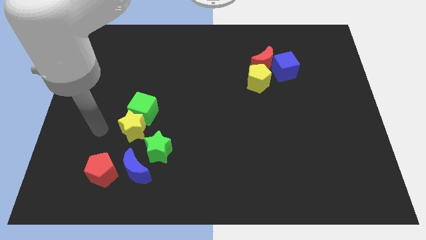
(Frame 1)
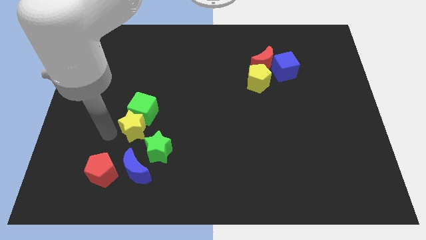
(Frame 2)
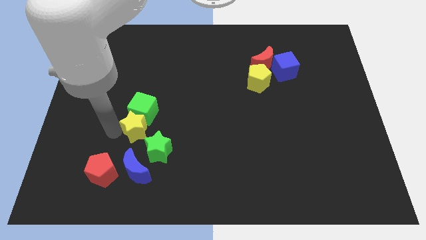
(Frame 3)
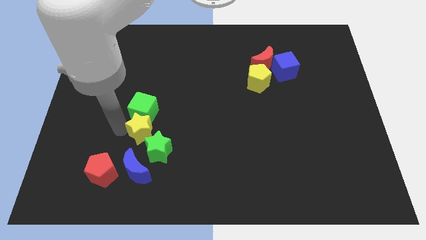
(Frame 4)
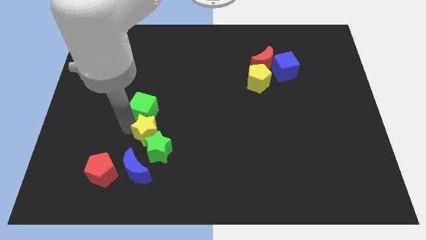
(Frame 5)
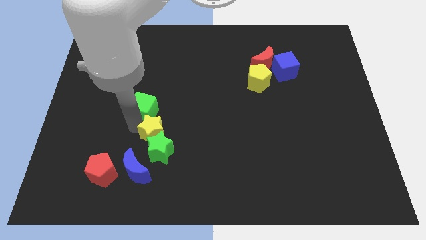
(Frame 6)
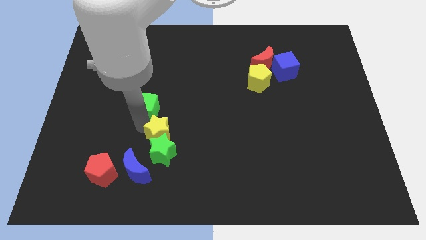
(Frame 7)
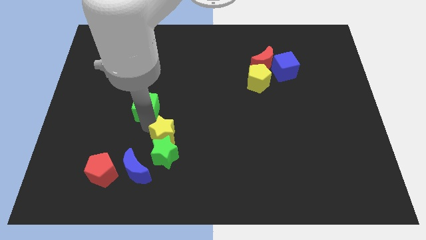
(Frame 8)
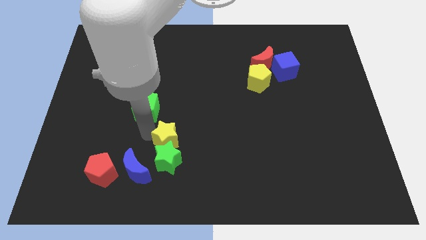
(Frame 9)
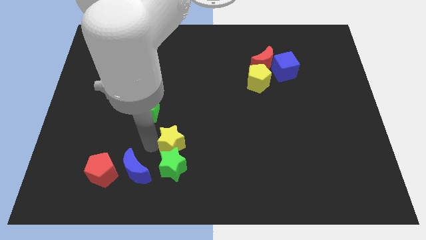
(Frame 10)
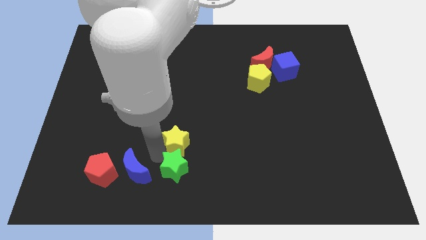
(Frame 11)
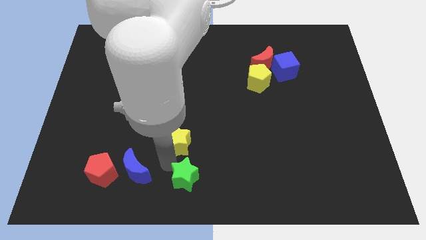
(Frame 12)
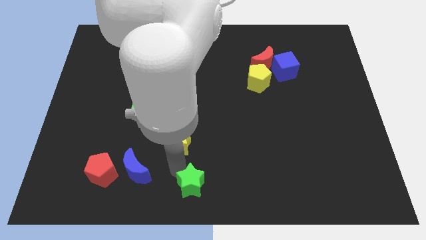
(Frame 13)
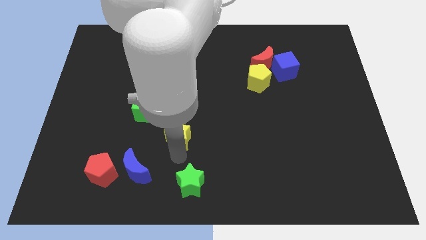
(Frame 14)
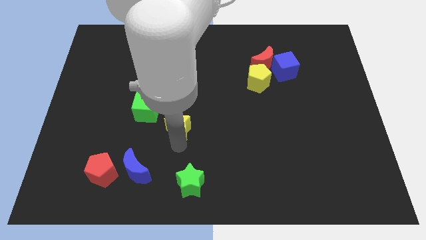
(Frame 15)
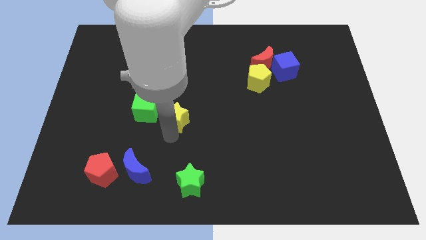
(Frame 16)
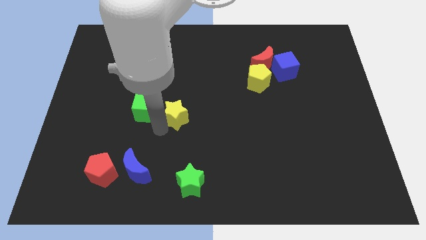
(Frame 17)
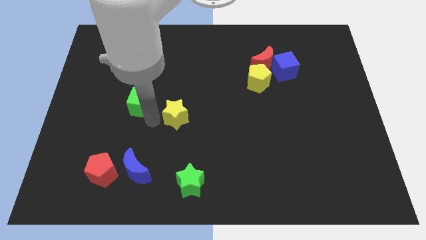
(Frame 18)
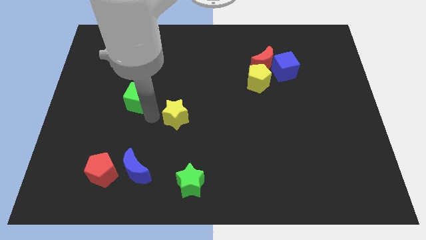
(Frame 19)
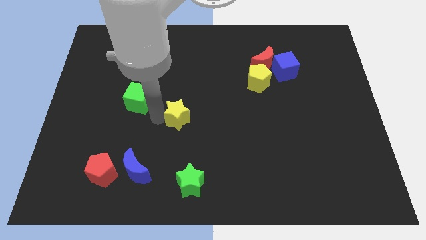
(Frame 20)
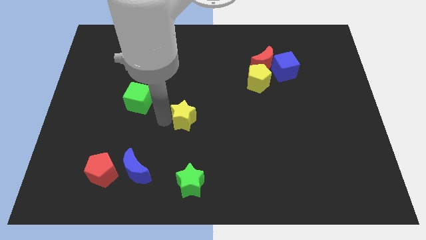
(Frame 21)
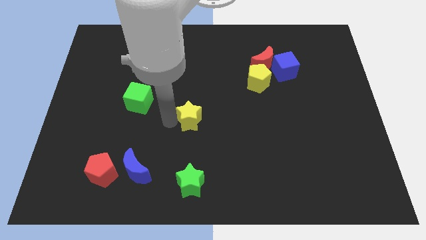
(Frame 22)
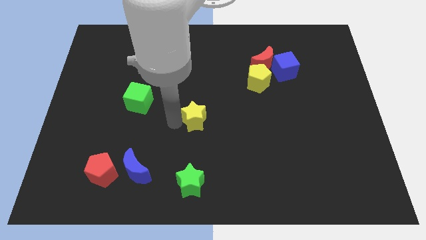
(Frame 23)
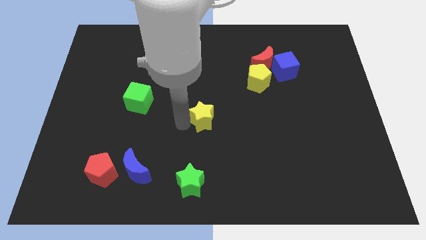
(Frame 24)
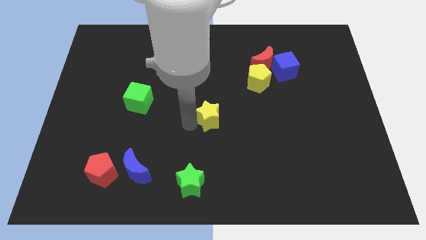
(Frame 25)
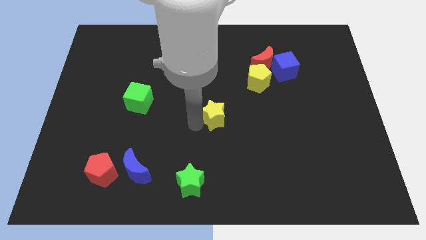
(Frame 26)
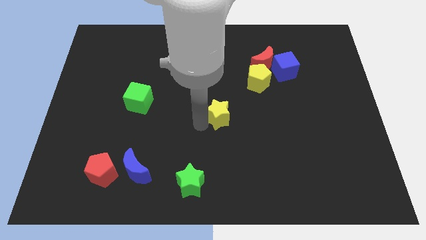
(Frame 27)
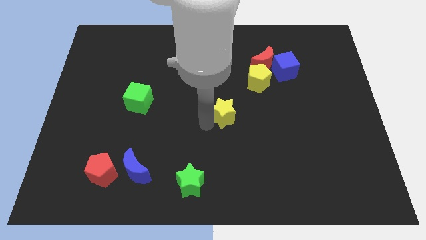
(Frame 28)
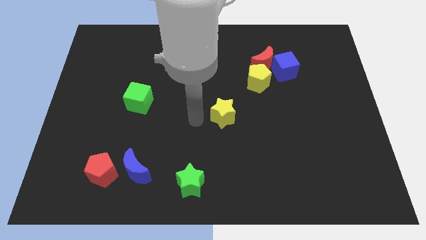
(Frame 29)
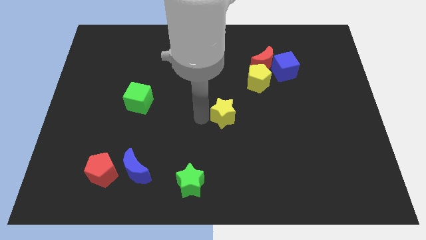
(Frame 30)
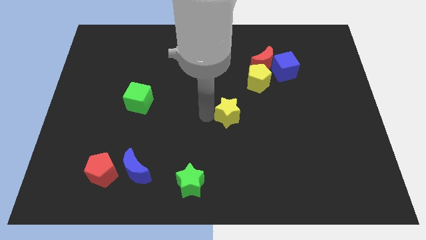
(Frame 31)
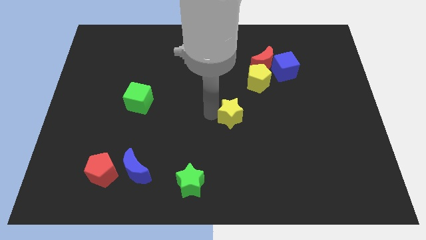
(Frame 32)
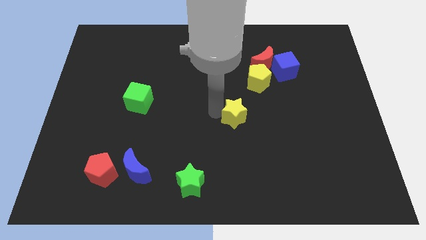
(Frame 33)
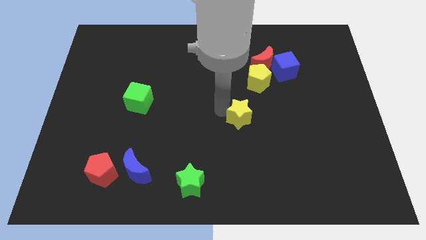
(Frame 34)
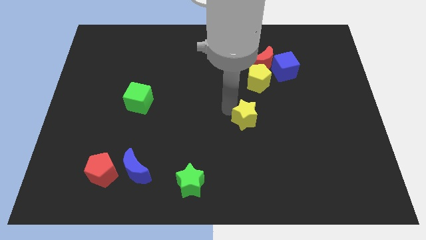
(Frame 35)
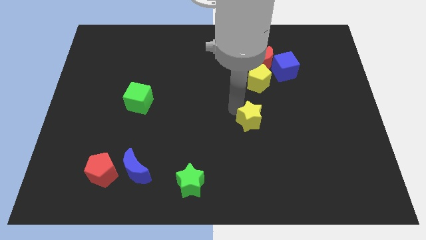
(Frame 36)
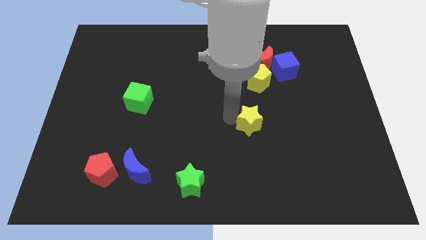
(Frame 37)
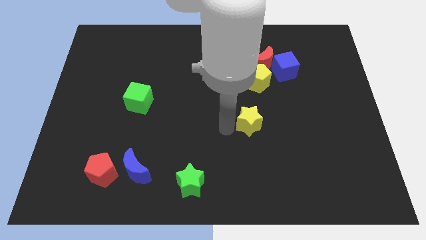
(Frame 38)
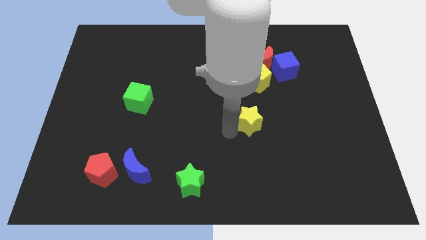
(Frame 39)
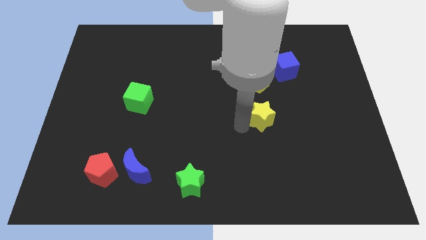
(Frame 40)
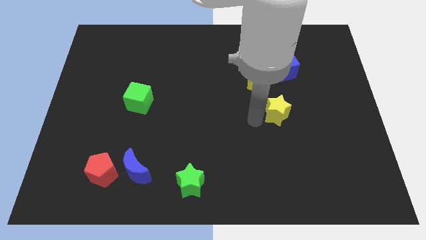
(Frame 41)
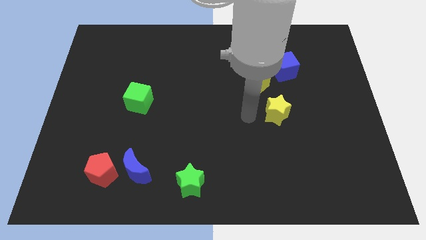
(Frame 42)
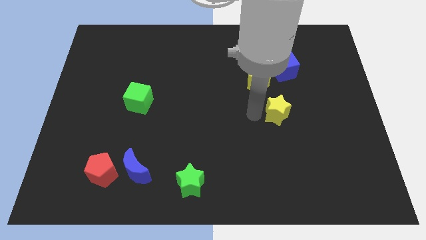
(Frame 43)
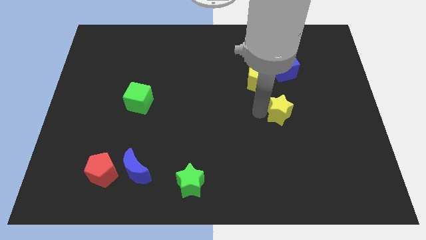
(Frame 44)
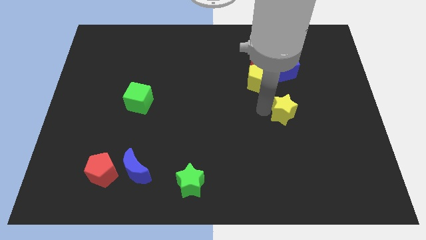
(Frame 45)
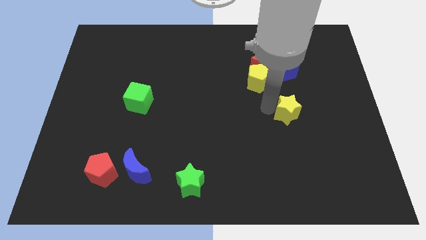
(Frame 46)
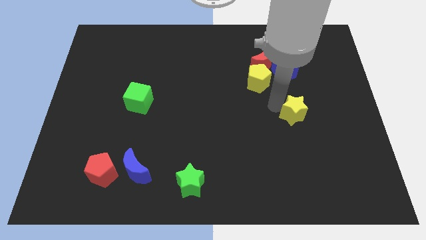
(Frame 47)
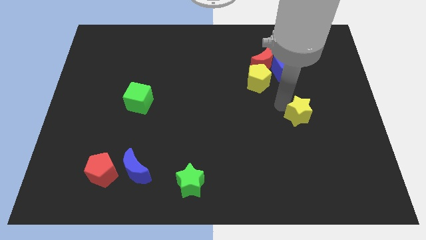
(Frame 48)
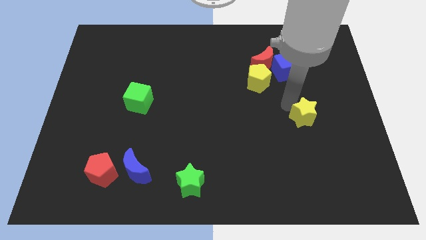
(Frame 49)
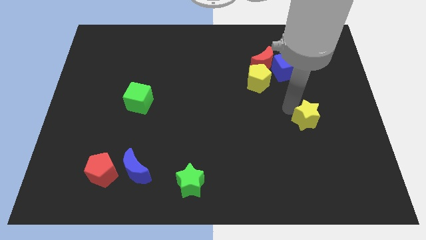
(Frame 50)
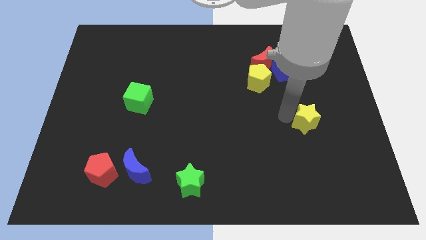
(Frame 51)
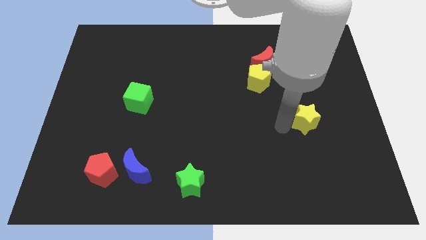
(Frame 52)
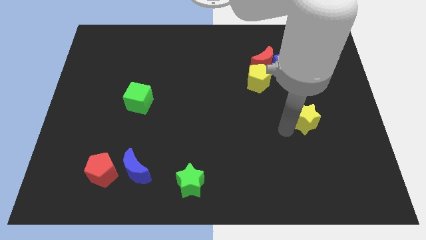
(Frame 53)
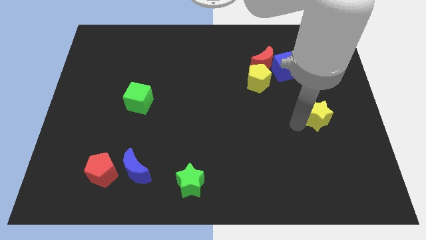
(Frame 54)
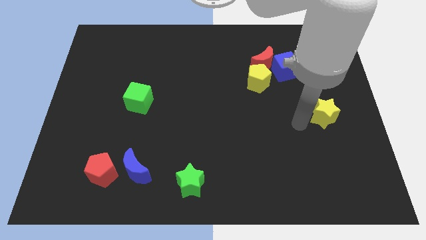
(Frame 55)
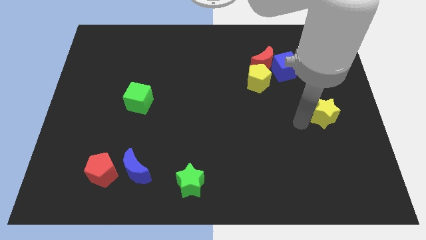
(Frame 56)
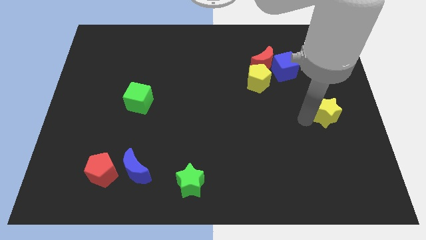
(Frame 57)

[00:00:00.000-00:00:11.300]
slide the yellow star to the center right

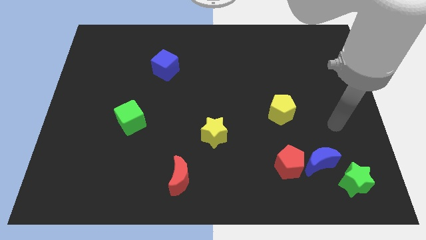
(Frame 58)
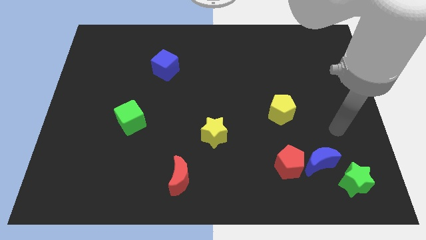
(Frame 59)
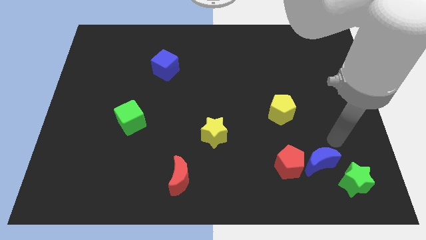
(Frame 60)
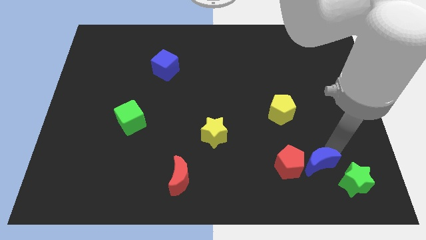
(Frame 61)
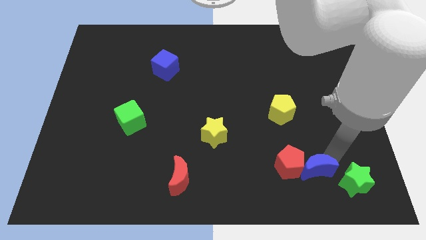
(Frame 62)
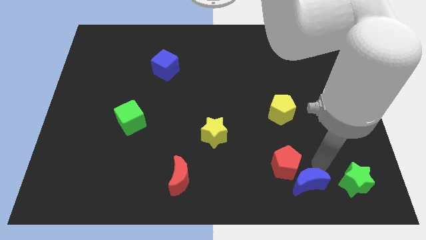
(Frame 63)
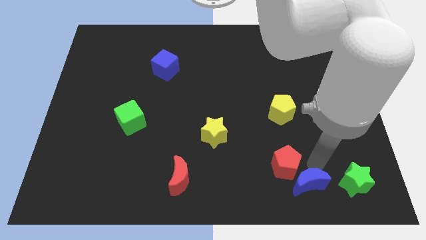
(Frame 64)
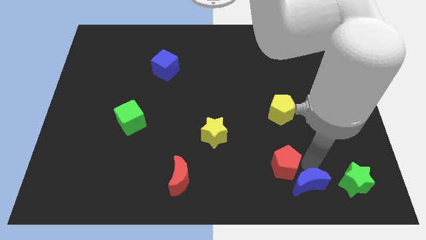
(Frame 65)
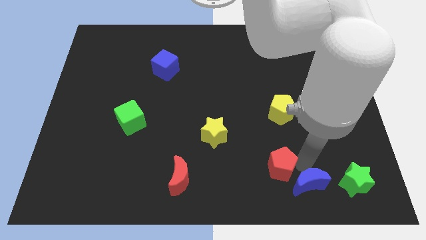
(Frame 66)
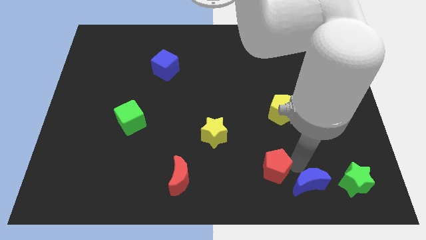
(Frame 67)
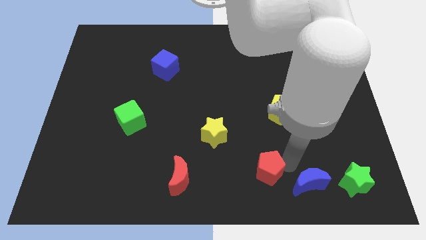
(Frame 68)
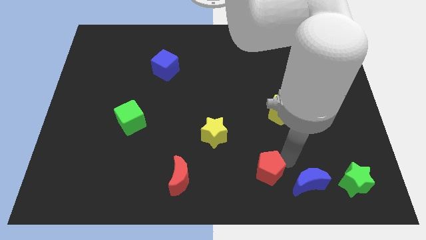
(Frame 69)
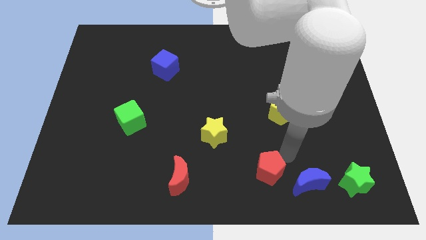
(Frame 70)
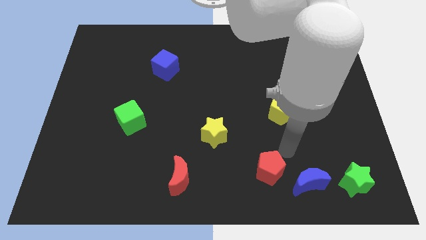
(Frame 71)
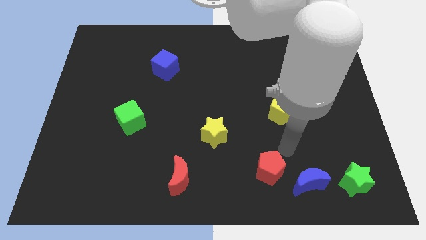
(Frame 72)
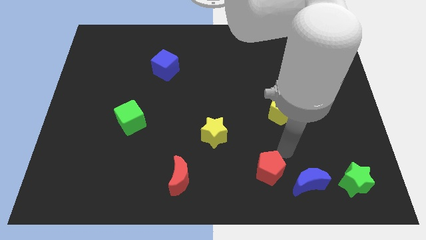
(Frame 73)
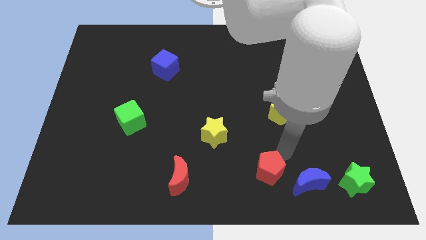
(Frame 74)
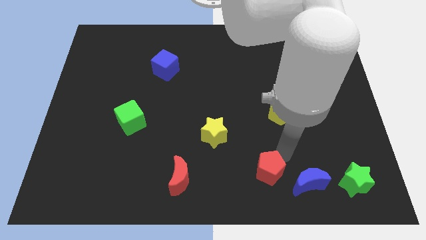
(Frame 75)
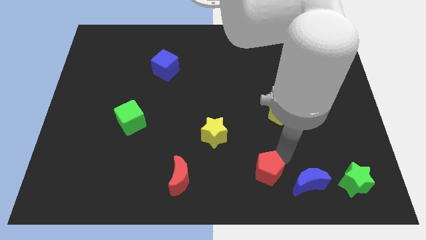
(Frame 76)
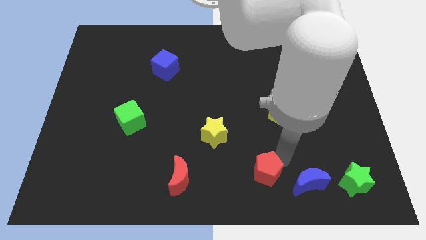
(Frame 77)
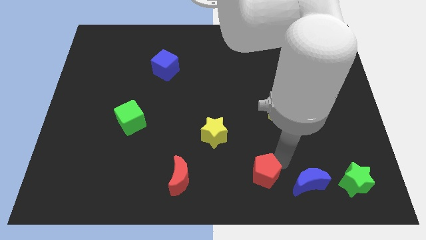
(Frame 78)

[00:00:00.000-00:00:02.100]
move the red pentagon to the bottom side
